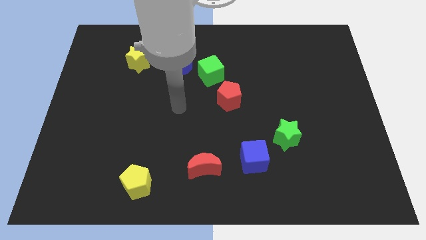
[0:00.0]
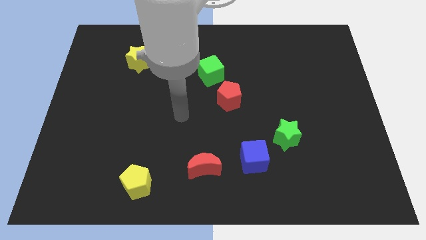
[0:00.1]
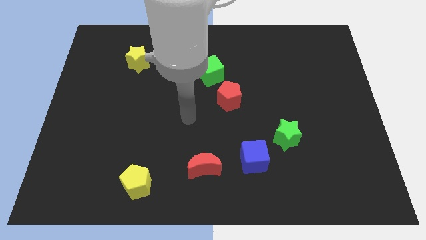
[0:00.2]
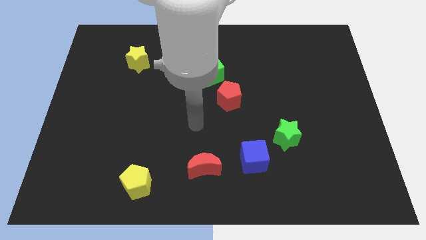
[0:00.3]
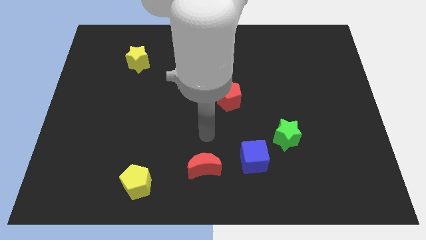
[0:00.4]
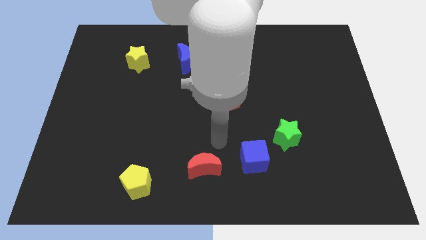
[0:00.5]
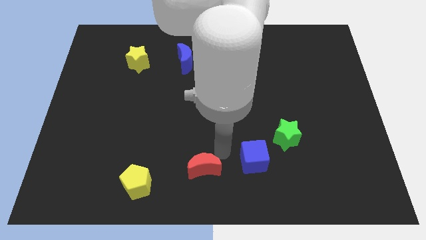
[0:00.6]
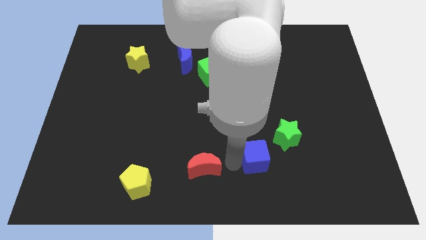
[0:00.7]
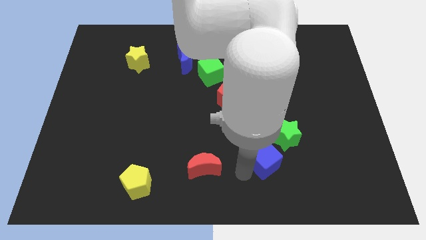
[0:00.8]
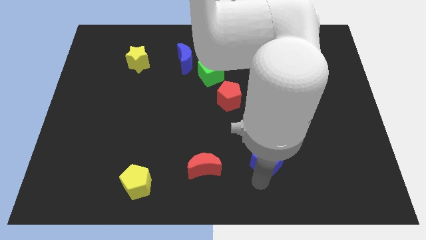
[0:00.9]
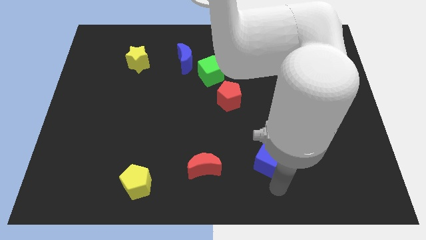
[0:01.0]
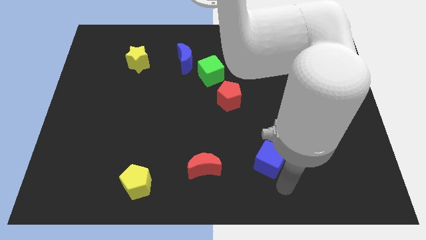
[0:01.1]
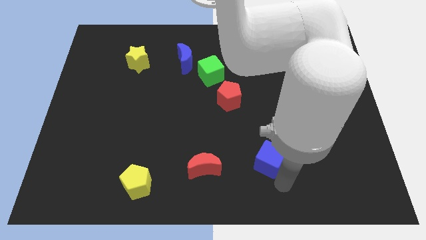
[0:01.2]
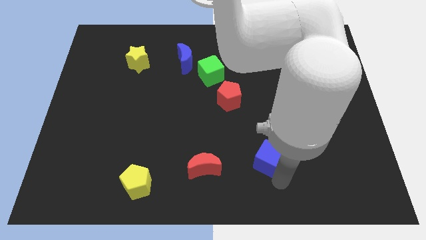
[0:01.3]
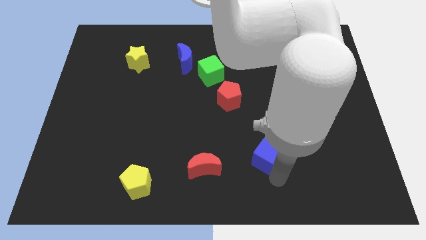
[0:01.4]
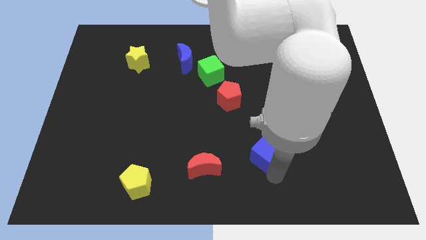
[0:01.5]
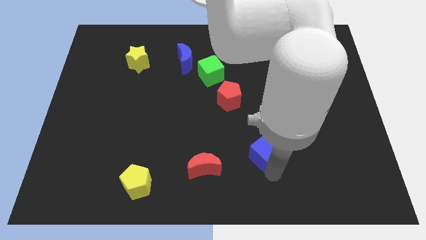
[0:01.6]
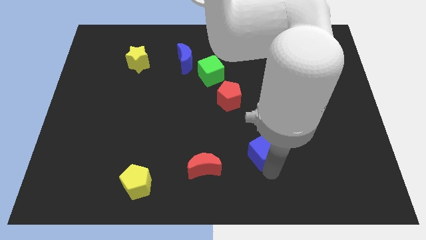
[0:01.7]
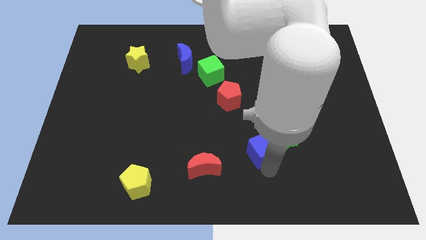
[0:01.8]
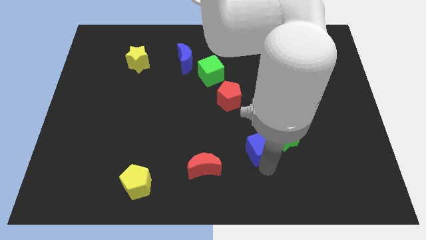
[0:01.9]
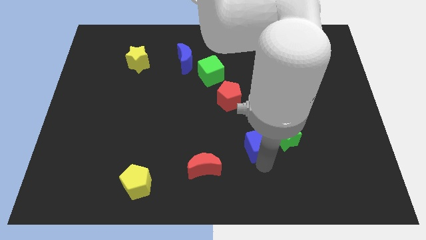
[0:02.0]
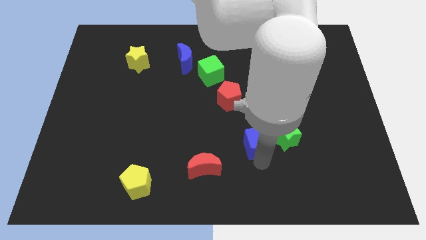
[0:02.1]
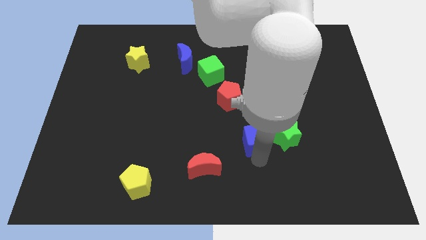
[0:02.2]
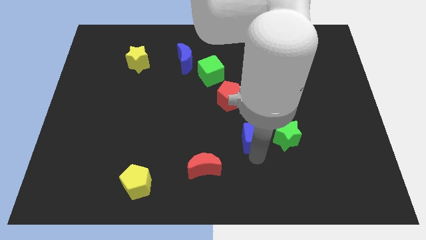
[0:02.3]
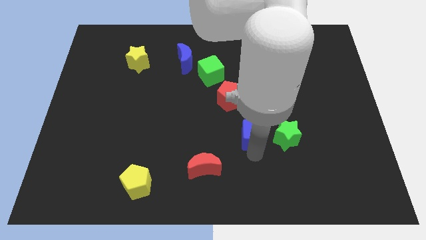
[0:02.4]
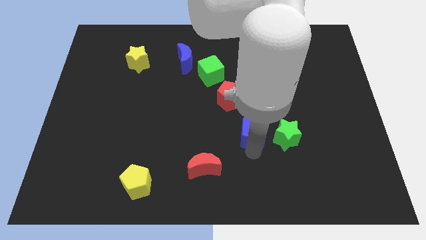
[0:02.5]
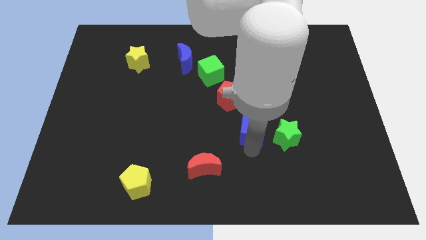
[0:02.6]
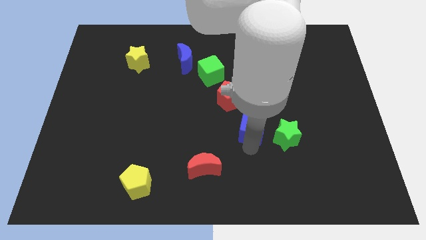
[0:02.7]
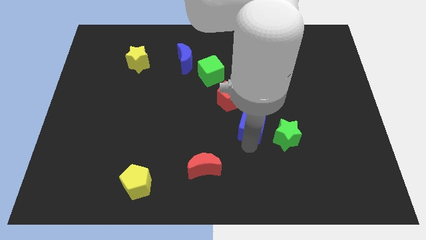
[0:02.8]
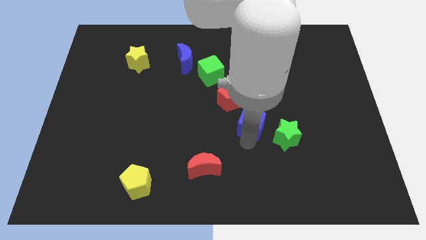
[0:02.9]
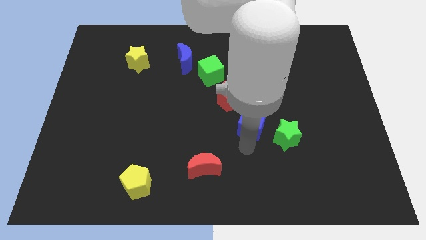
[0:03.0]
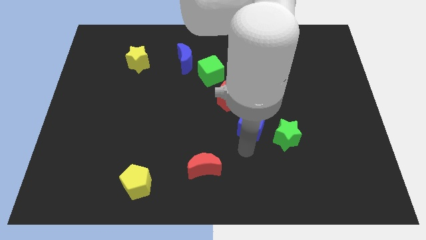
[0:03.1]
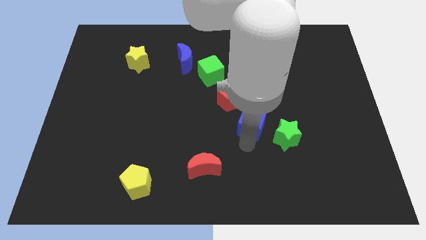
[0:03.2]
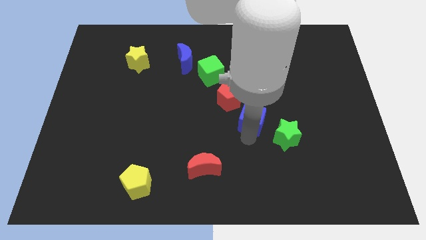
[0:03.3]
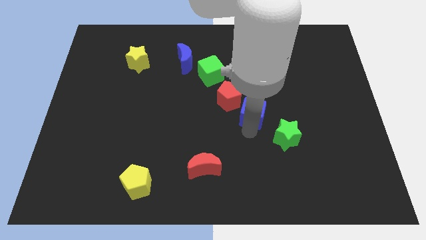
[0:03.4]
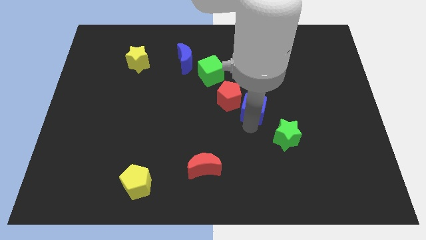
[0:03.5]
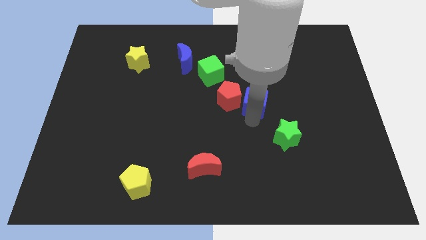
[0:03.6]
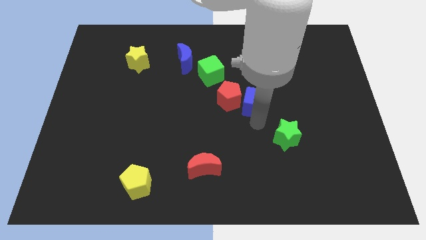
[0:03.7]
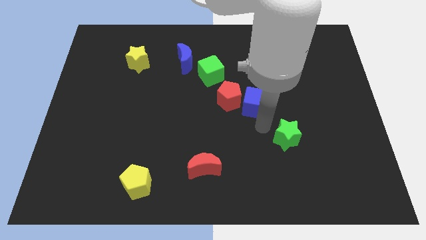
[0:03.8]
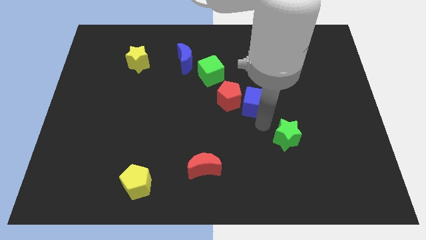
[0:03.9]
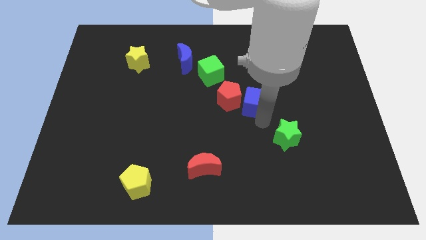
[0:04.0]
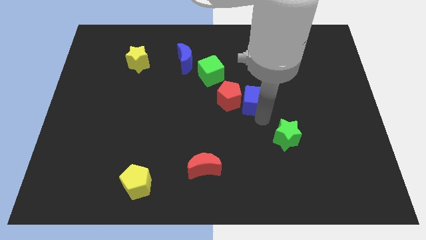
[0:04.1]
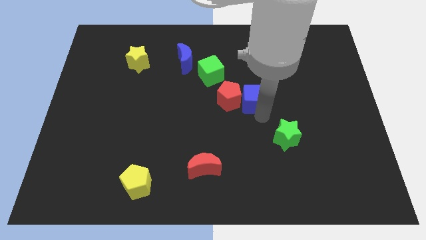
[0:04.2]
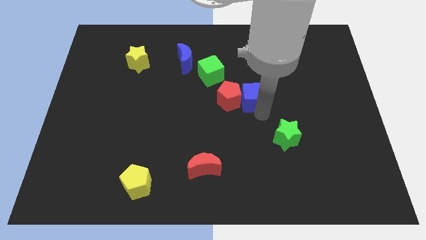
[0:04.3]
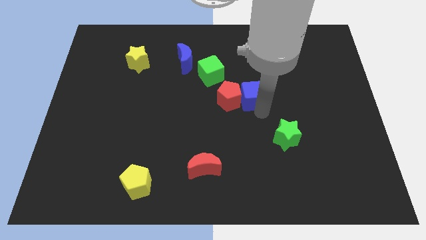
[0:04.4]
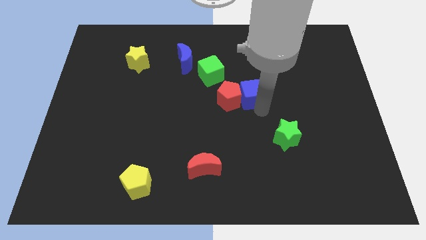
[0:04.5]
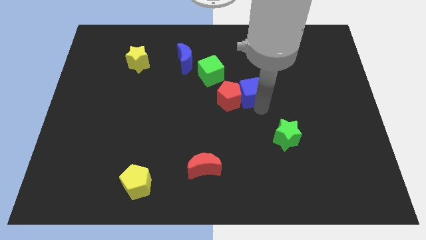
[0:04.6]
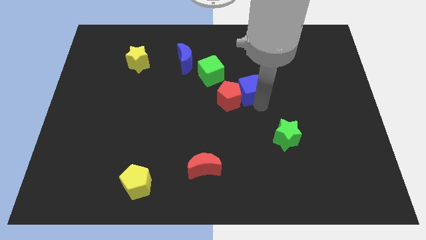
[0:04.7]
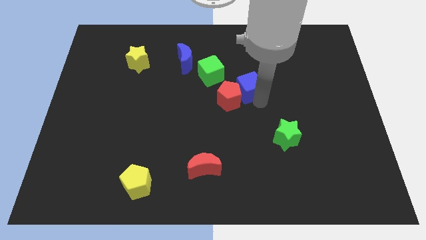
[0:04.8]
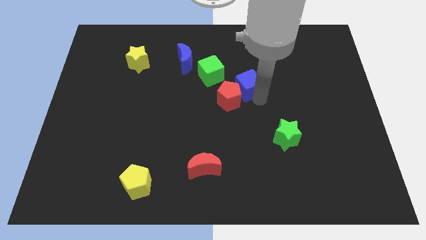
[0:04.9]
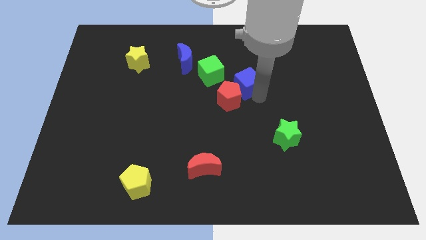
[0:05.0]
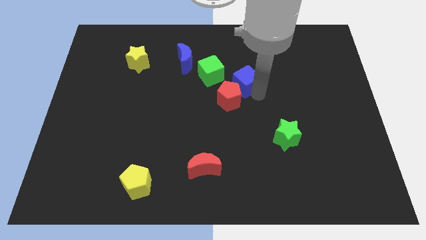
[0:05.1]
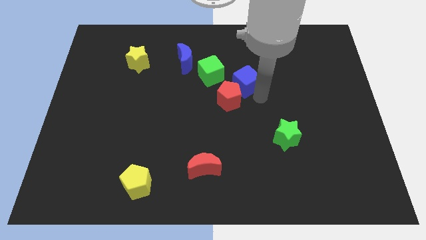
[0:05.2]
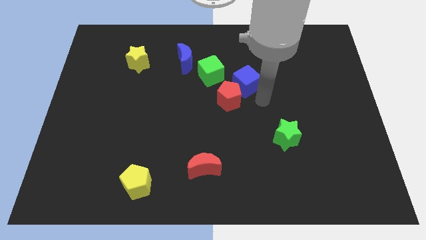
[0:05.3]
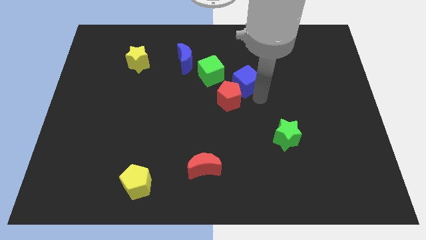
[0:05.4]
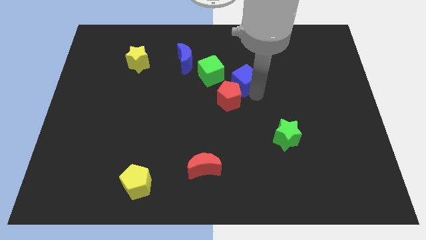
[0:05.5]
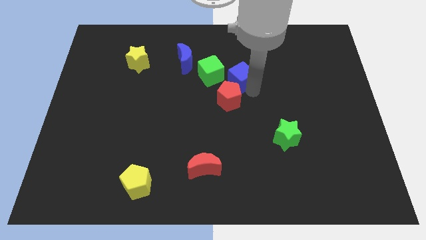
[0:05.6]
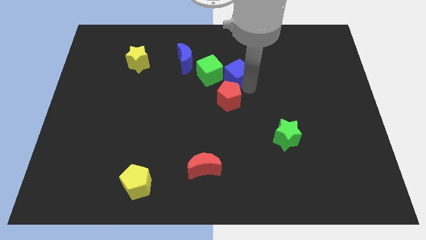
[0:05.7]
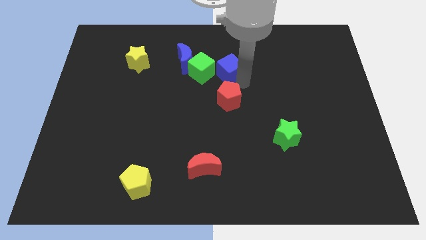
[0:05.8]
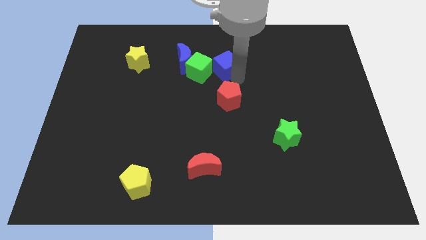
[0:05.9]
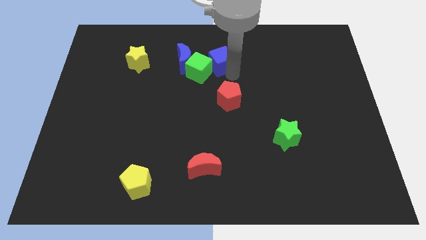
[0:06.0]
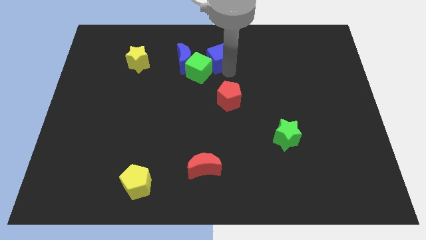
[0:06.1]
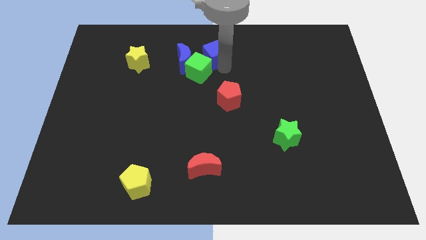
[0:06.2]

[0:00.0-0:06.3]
move the blue cube to the top
